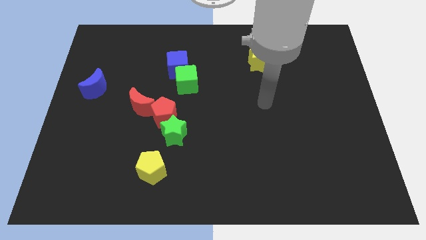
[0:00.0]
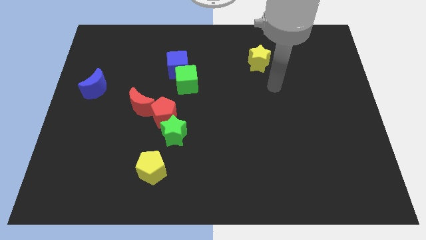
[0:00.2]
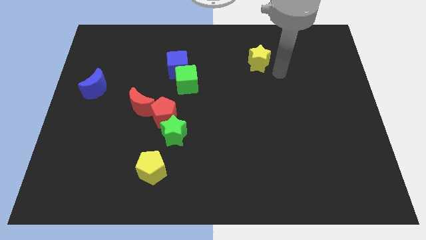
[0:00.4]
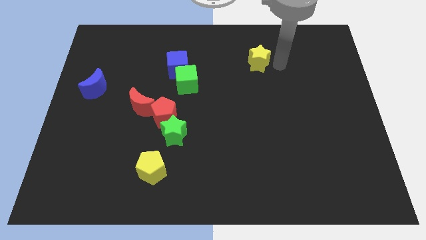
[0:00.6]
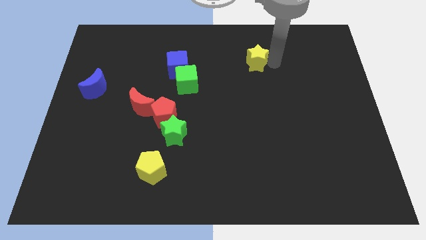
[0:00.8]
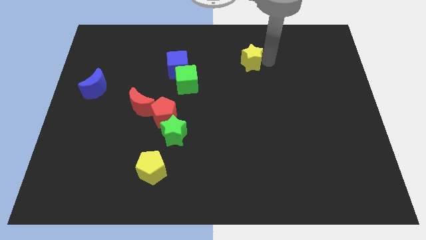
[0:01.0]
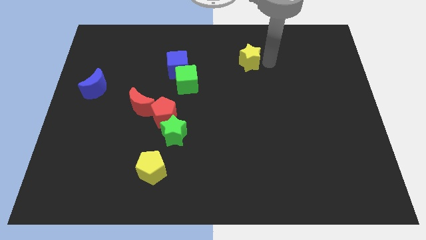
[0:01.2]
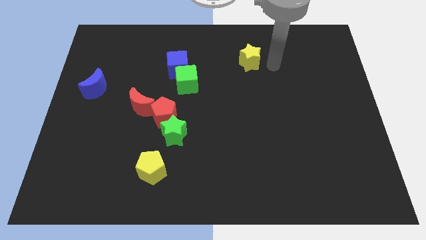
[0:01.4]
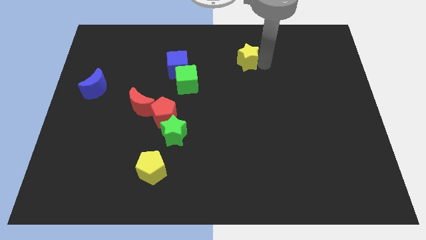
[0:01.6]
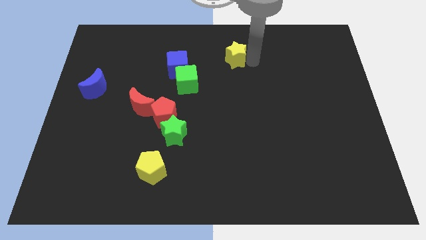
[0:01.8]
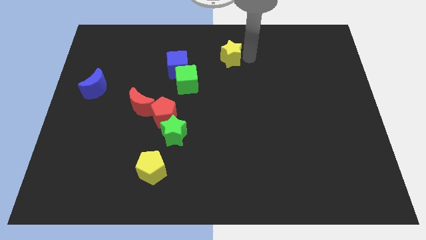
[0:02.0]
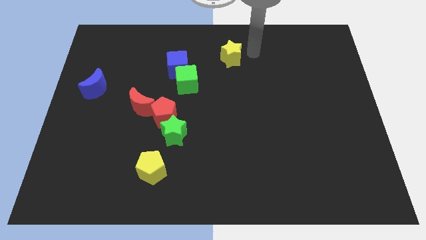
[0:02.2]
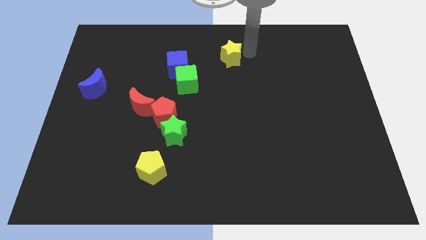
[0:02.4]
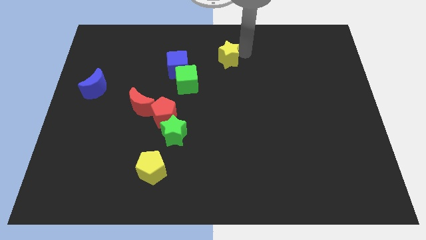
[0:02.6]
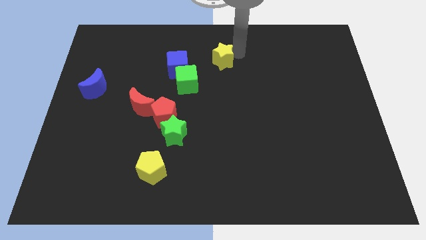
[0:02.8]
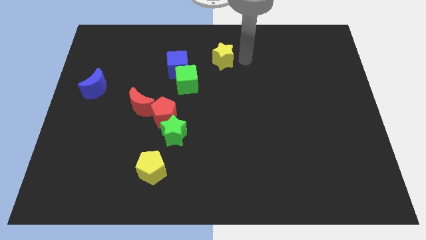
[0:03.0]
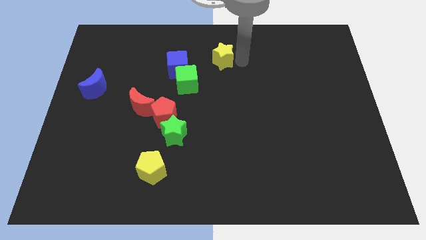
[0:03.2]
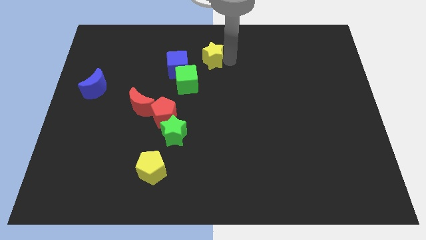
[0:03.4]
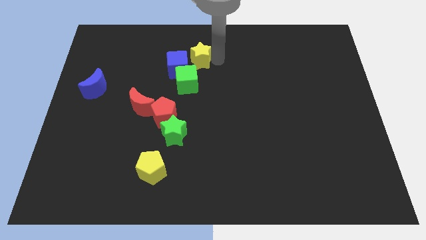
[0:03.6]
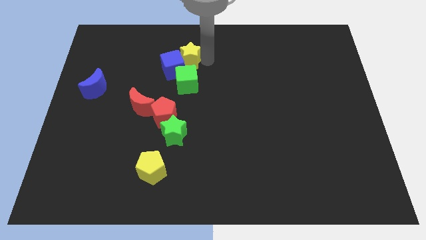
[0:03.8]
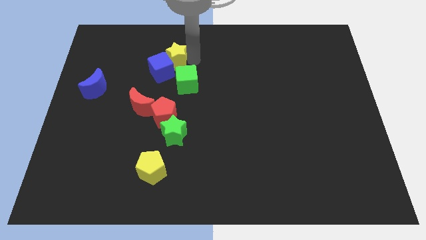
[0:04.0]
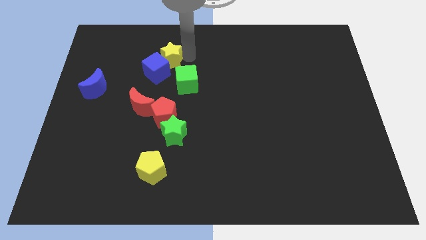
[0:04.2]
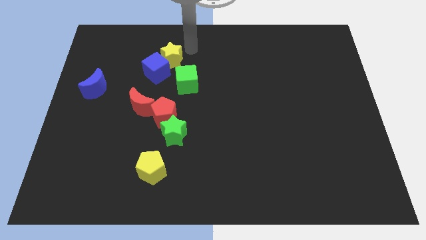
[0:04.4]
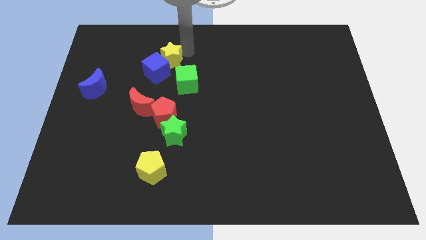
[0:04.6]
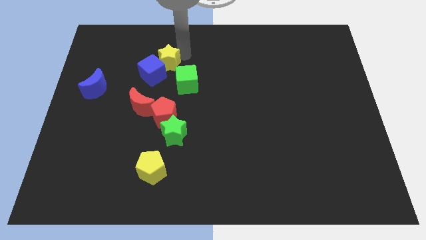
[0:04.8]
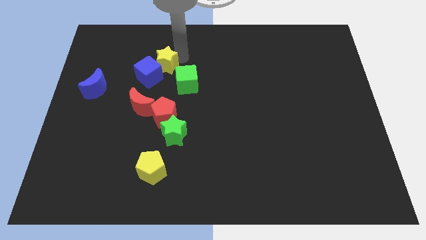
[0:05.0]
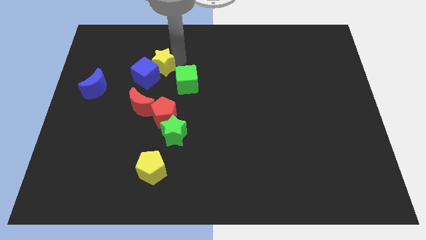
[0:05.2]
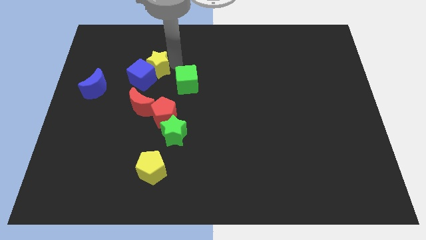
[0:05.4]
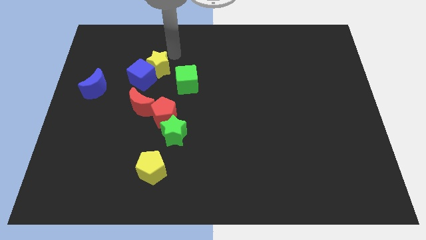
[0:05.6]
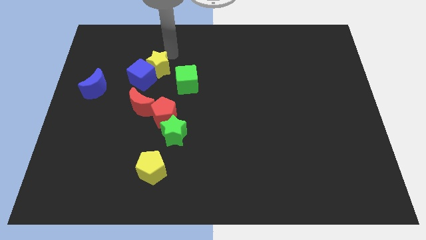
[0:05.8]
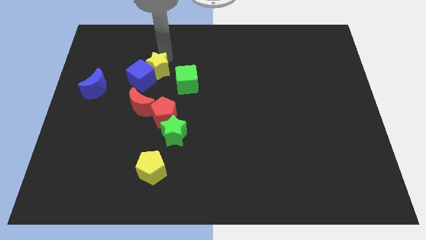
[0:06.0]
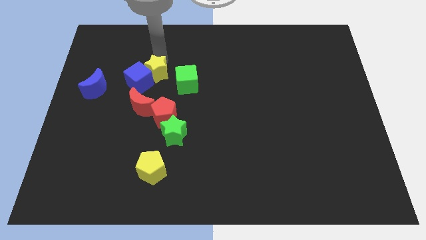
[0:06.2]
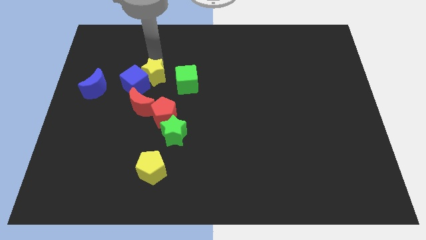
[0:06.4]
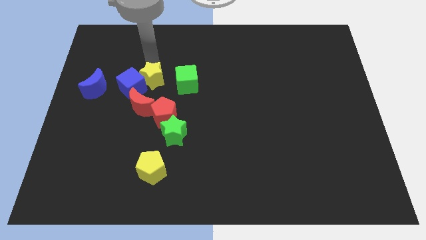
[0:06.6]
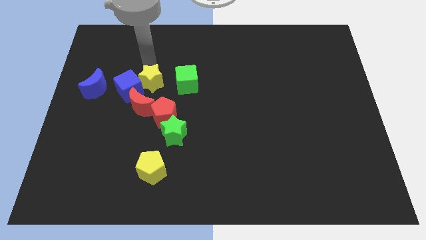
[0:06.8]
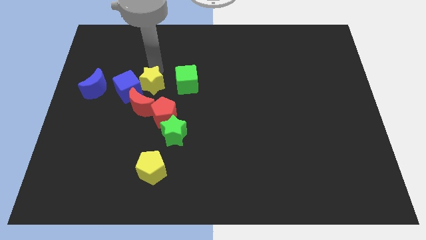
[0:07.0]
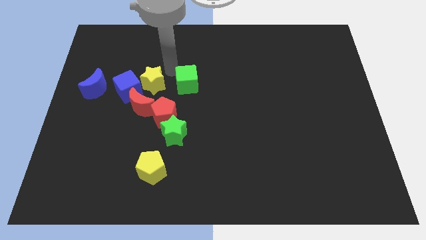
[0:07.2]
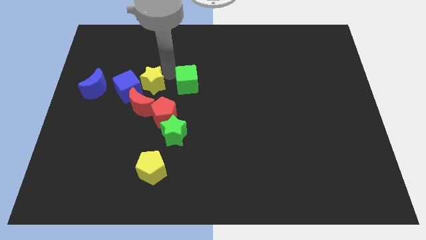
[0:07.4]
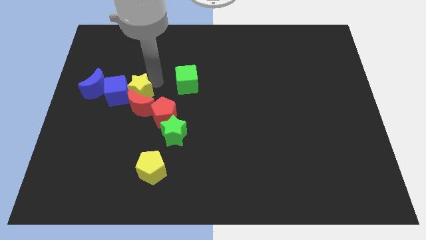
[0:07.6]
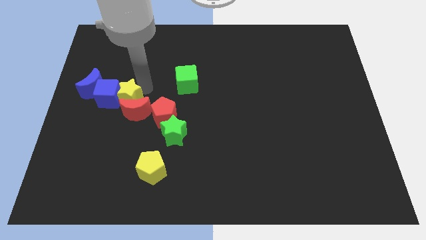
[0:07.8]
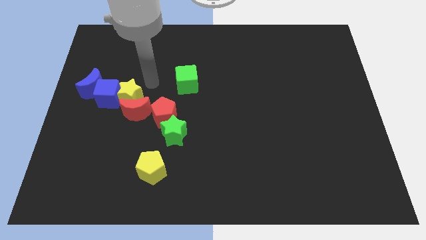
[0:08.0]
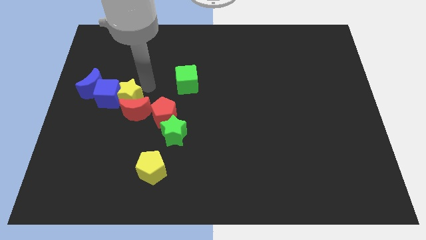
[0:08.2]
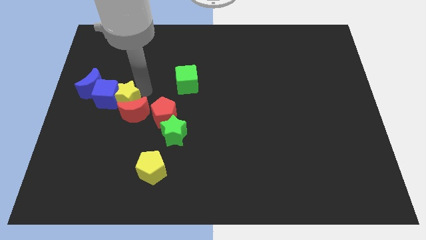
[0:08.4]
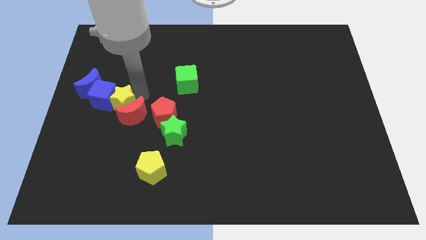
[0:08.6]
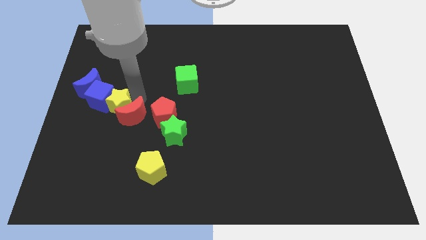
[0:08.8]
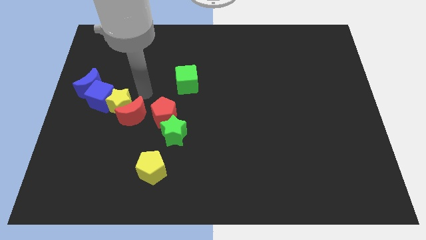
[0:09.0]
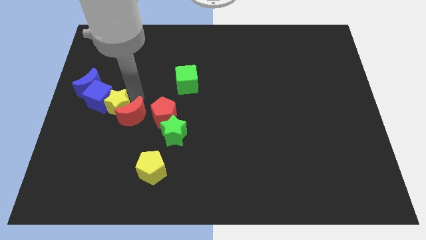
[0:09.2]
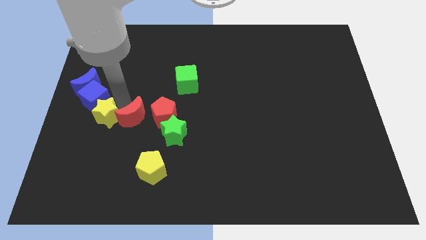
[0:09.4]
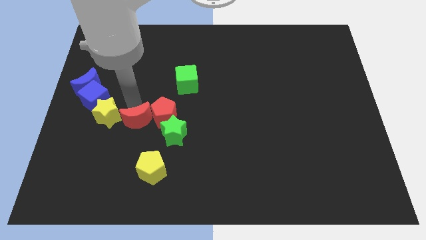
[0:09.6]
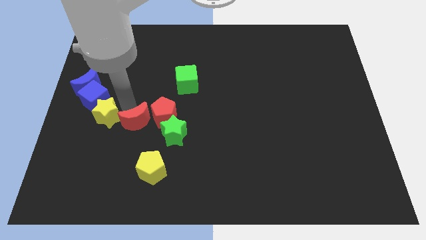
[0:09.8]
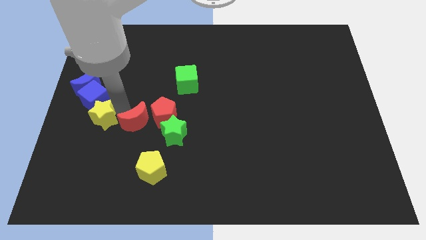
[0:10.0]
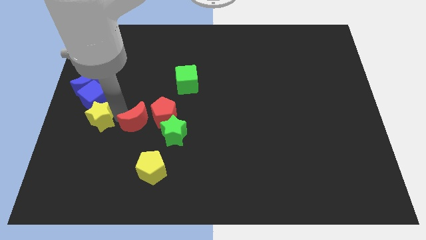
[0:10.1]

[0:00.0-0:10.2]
push the yellow star to the bottom side of the blue moon

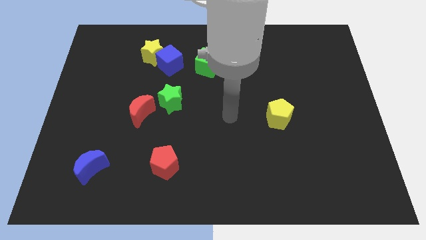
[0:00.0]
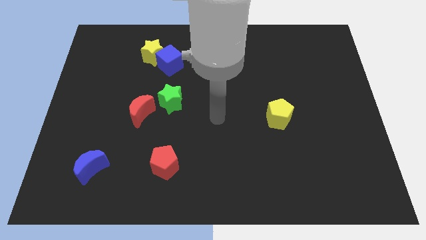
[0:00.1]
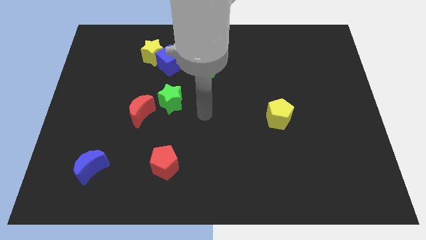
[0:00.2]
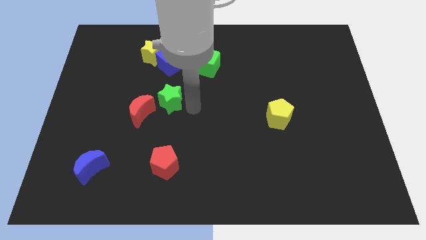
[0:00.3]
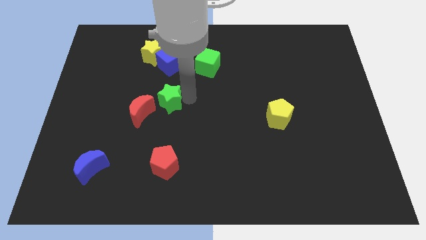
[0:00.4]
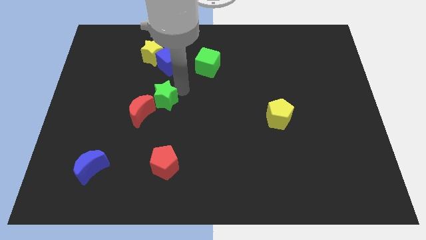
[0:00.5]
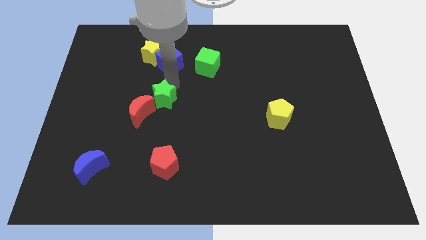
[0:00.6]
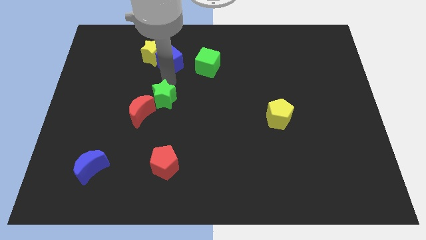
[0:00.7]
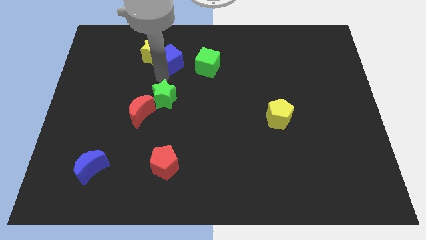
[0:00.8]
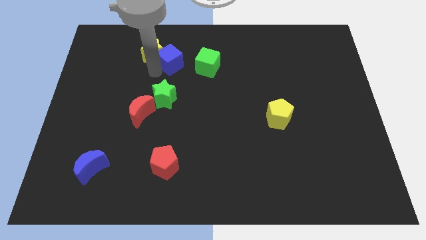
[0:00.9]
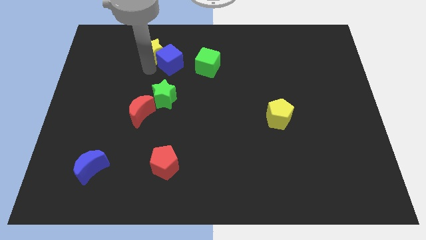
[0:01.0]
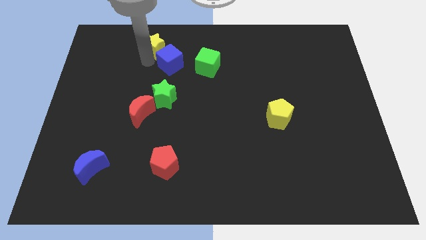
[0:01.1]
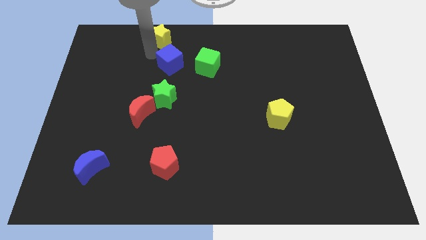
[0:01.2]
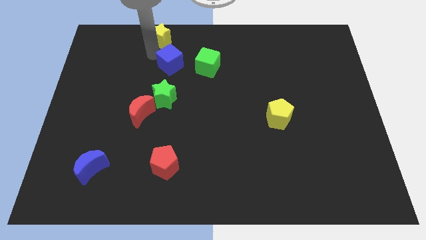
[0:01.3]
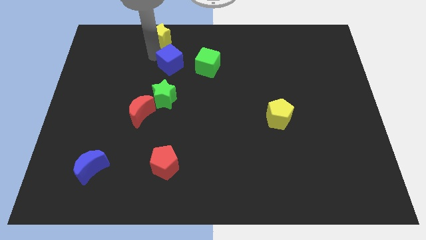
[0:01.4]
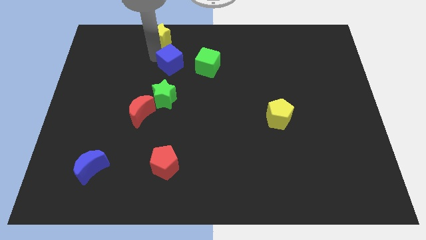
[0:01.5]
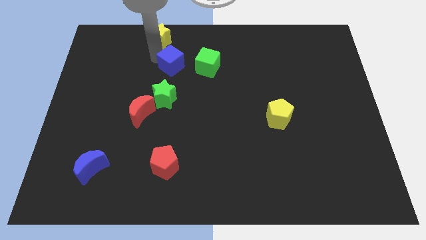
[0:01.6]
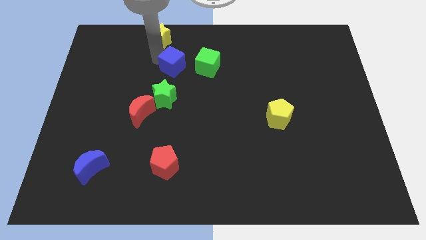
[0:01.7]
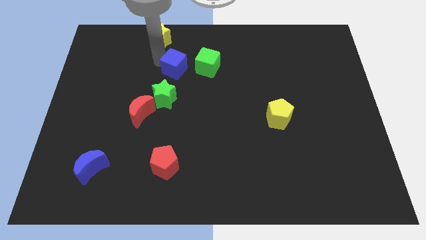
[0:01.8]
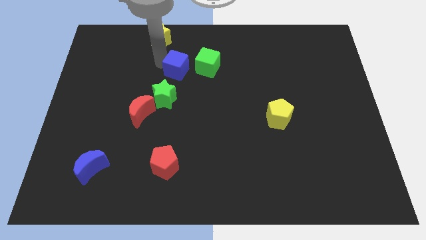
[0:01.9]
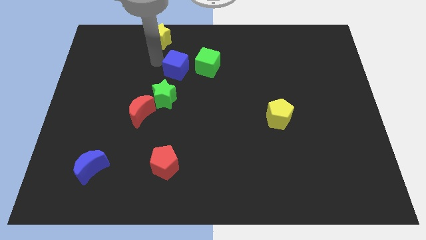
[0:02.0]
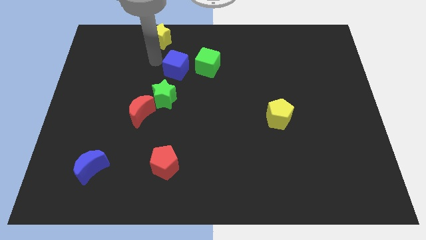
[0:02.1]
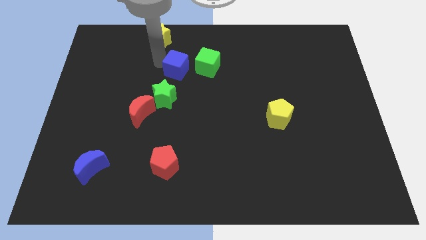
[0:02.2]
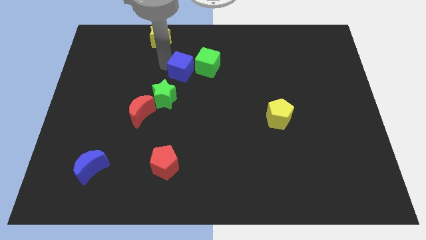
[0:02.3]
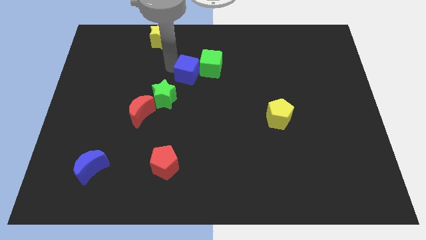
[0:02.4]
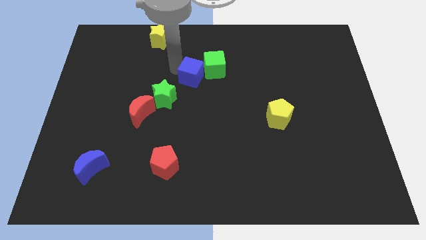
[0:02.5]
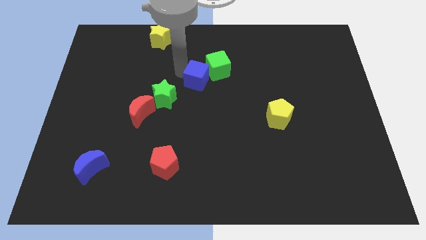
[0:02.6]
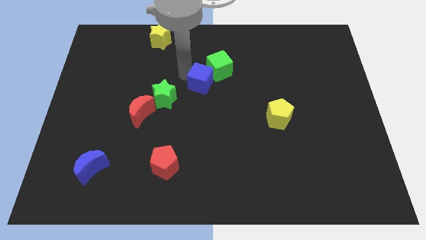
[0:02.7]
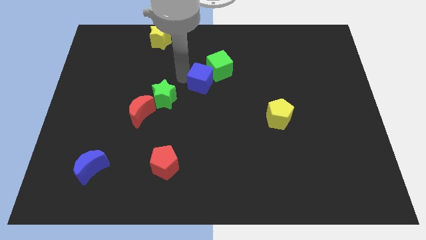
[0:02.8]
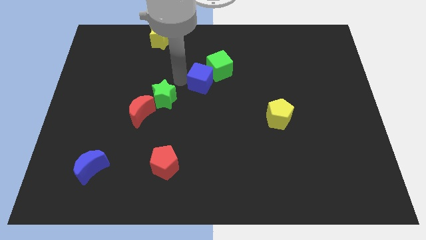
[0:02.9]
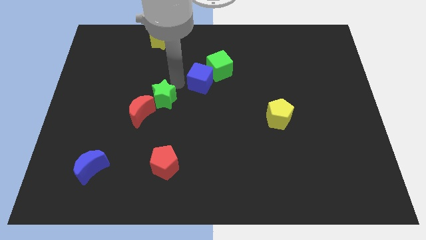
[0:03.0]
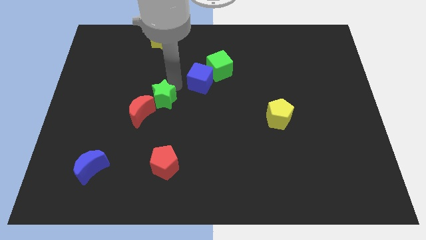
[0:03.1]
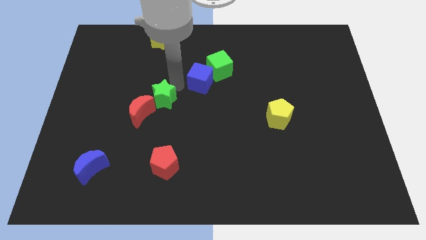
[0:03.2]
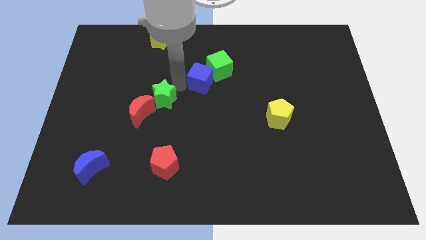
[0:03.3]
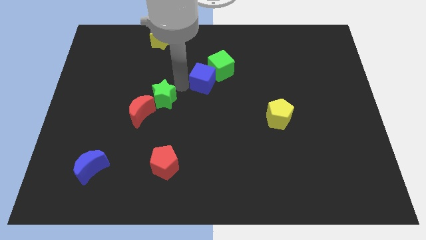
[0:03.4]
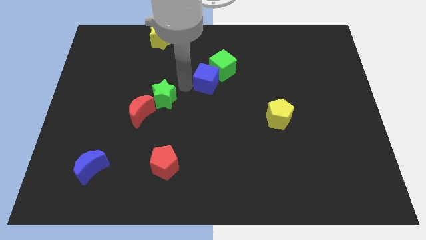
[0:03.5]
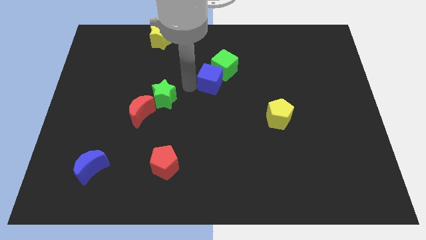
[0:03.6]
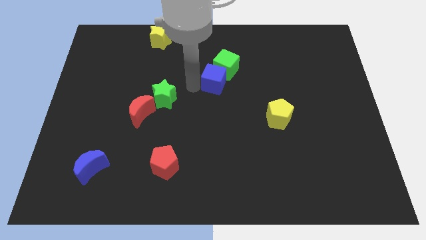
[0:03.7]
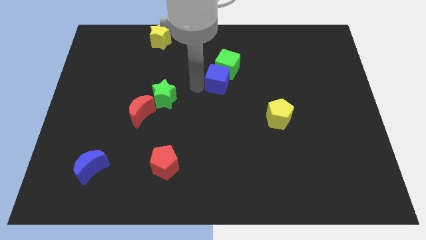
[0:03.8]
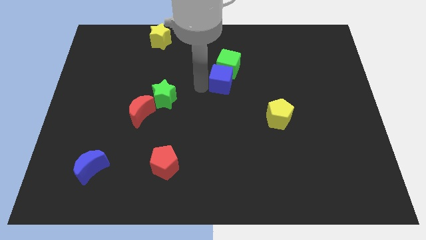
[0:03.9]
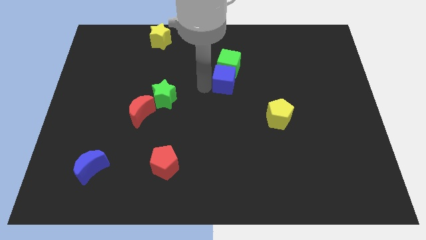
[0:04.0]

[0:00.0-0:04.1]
put the blue cube to the bottom right of the green cube
